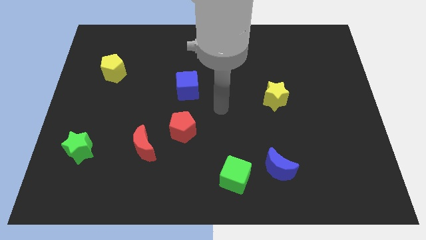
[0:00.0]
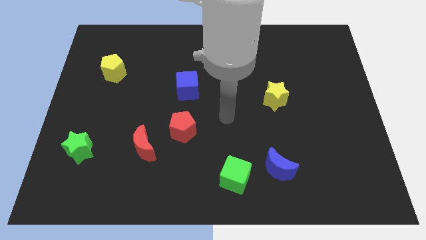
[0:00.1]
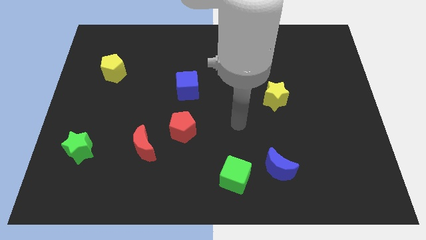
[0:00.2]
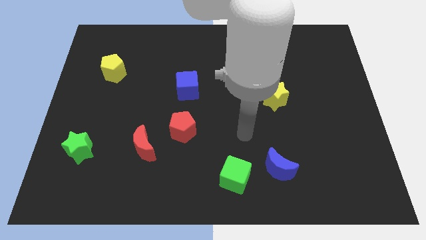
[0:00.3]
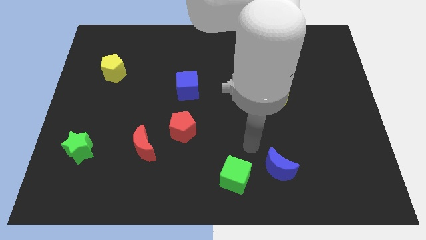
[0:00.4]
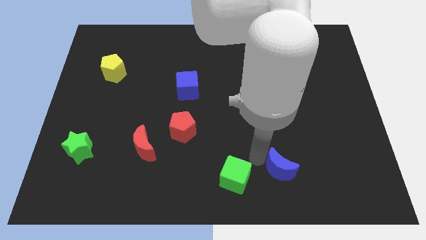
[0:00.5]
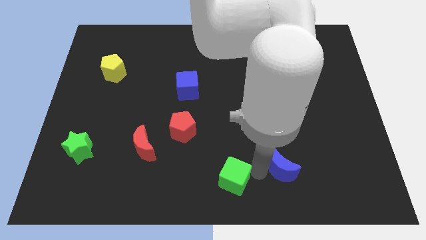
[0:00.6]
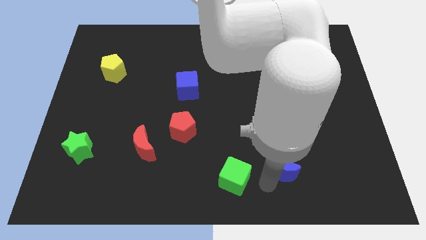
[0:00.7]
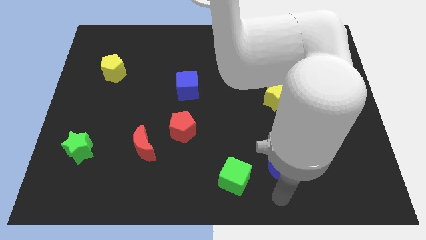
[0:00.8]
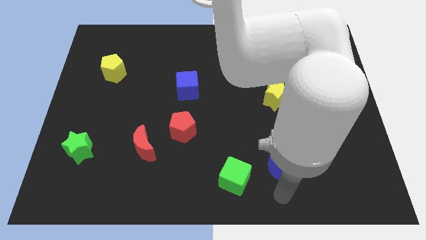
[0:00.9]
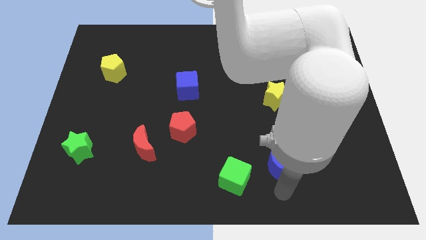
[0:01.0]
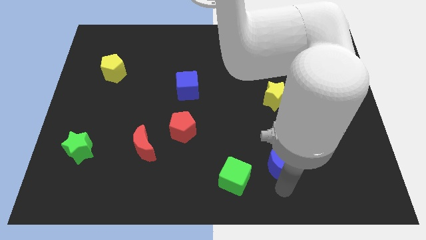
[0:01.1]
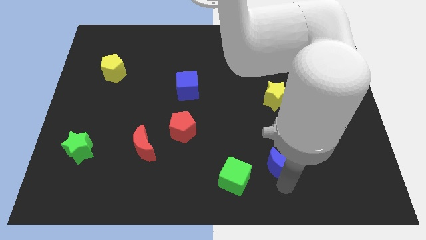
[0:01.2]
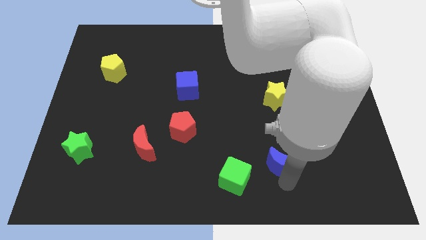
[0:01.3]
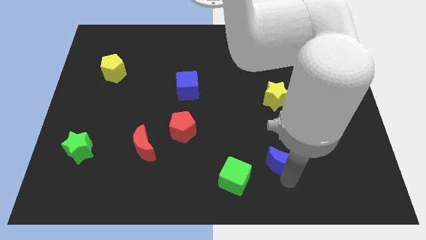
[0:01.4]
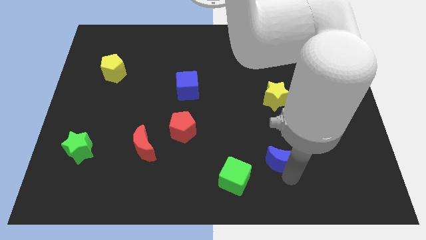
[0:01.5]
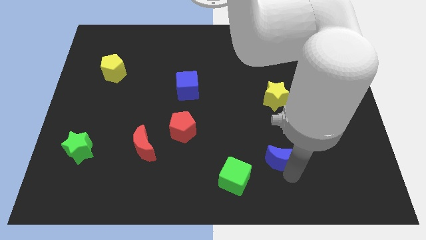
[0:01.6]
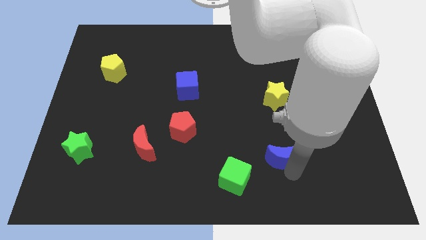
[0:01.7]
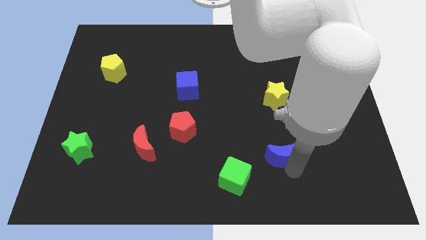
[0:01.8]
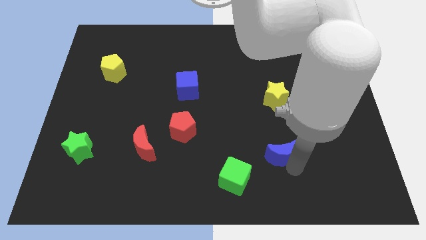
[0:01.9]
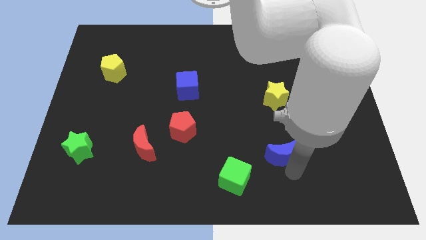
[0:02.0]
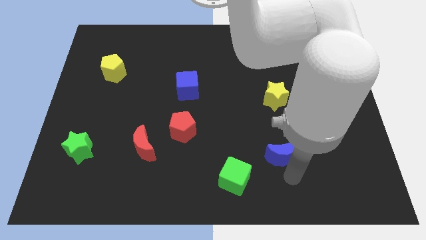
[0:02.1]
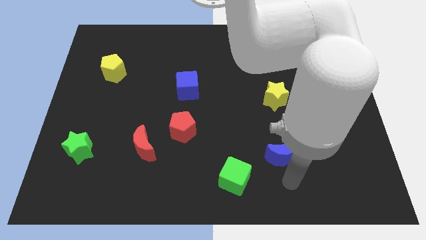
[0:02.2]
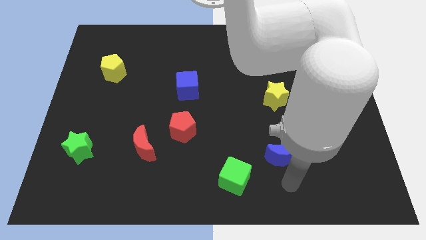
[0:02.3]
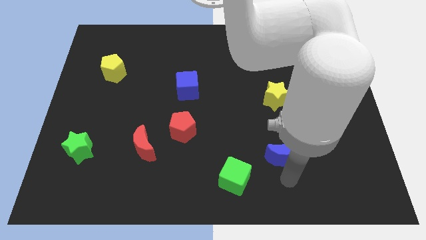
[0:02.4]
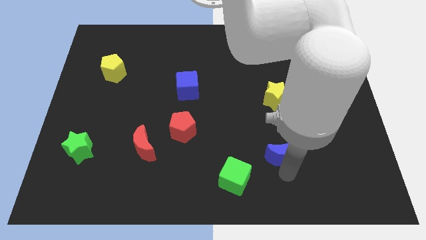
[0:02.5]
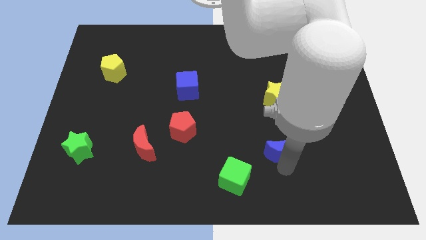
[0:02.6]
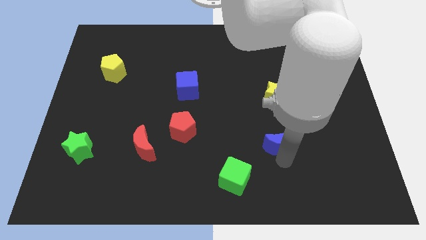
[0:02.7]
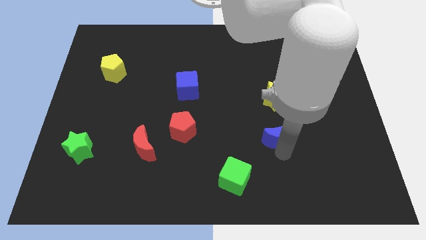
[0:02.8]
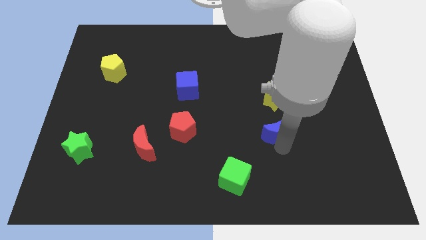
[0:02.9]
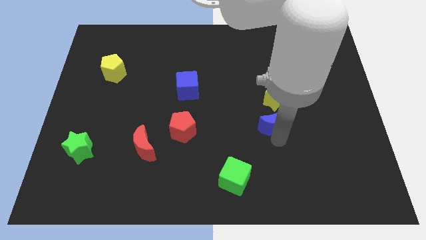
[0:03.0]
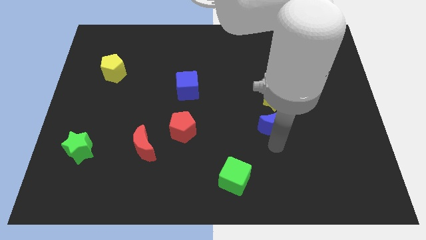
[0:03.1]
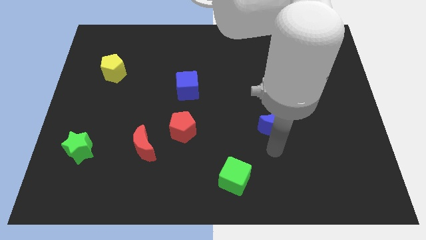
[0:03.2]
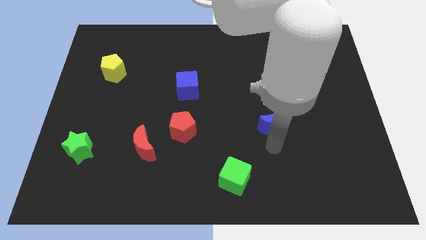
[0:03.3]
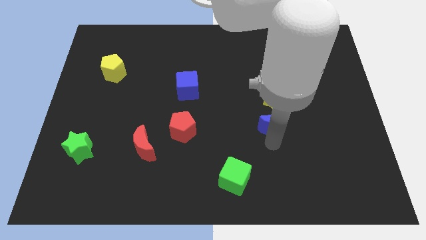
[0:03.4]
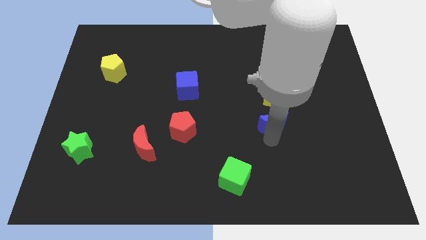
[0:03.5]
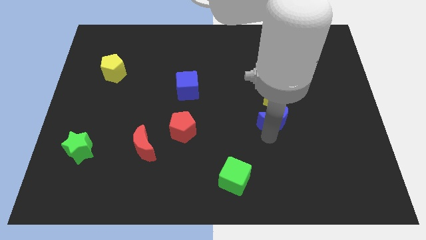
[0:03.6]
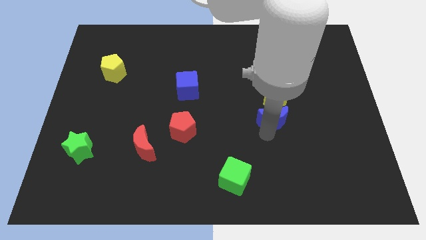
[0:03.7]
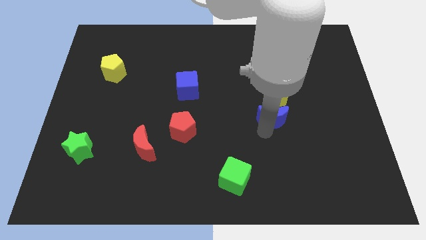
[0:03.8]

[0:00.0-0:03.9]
put the blue moon towards the yellow star

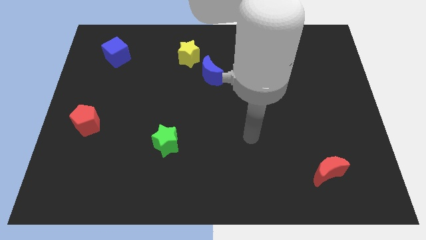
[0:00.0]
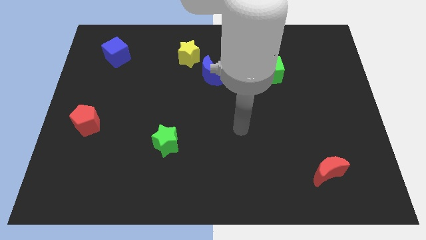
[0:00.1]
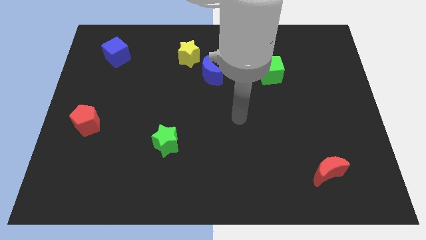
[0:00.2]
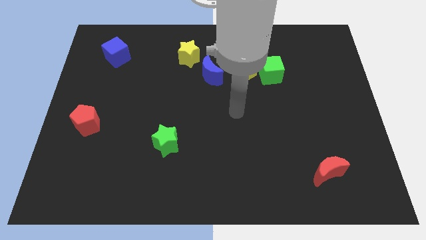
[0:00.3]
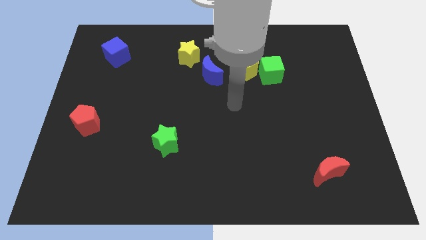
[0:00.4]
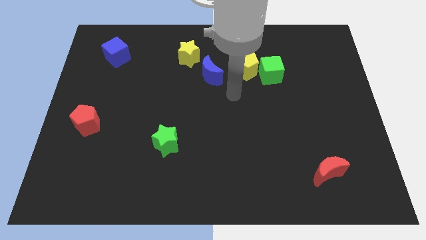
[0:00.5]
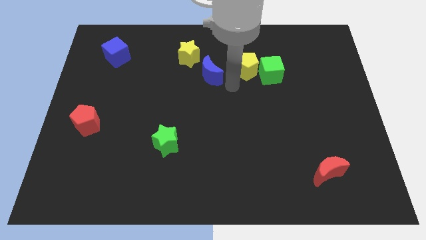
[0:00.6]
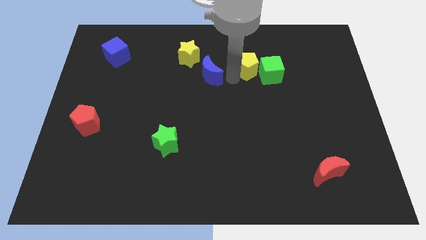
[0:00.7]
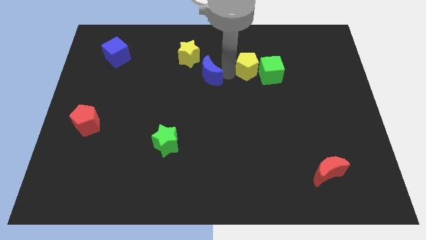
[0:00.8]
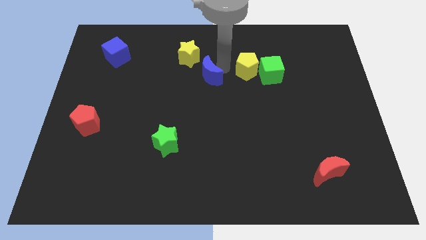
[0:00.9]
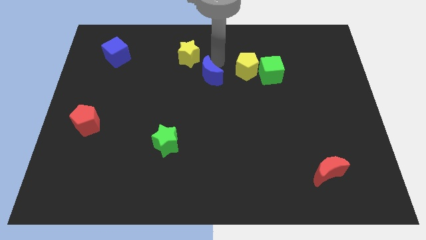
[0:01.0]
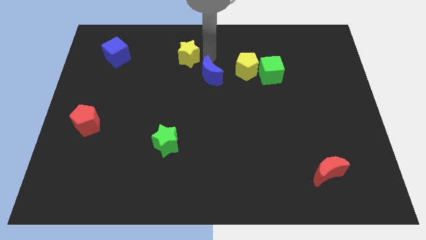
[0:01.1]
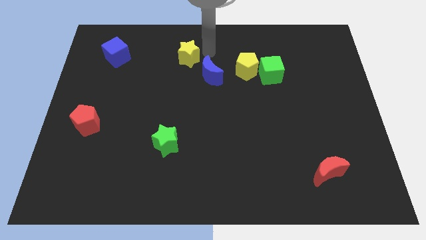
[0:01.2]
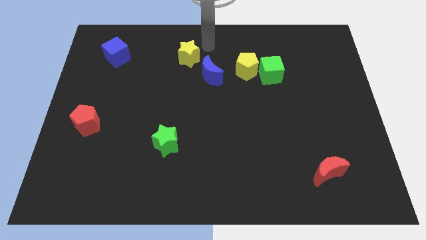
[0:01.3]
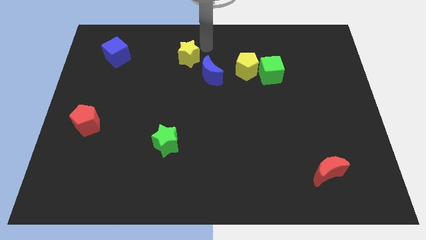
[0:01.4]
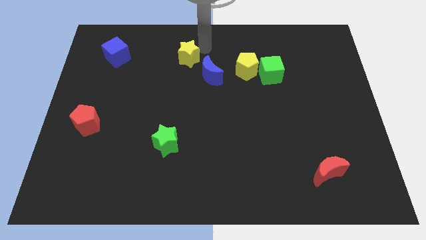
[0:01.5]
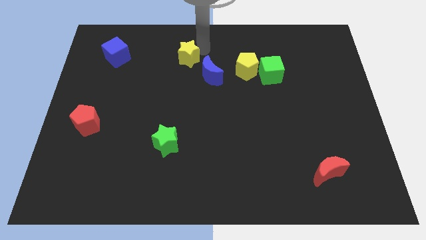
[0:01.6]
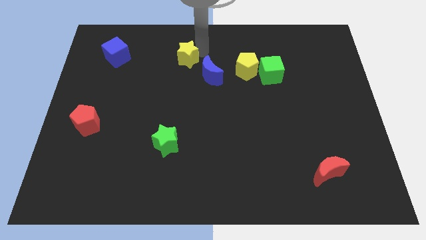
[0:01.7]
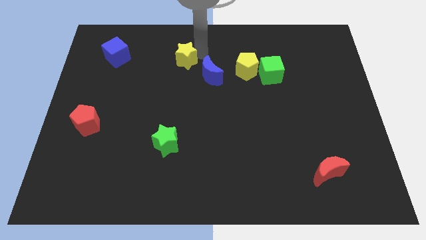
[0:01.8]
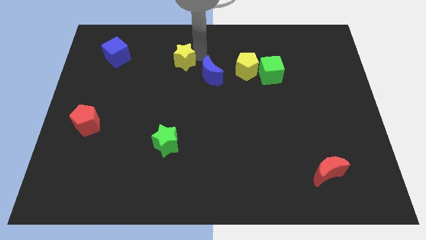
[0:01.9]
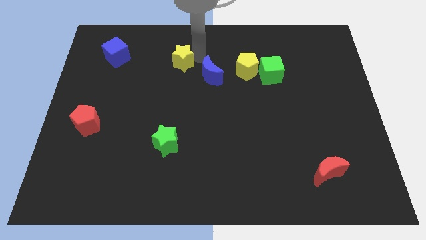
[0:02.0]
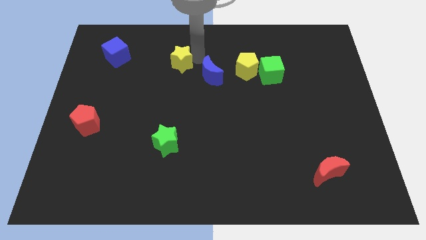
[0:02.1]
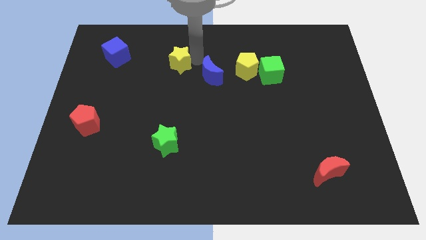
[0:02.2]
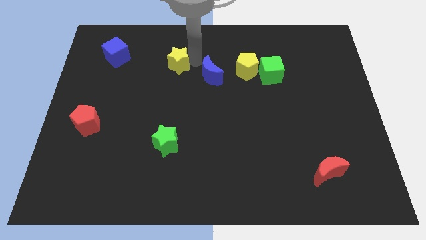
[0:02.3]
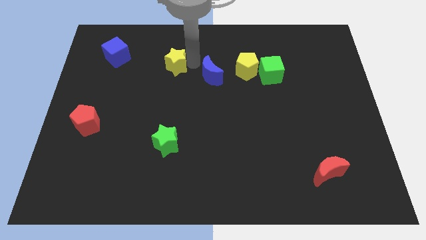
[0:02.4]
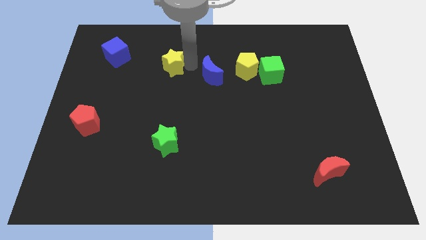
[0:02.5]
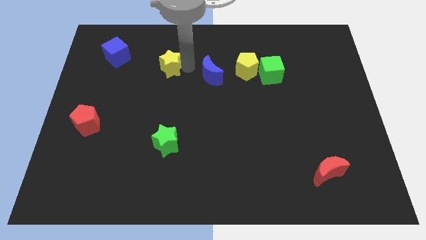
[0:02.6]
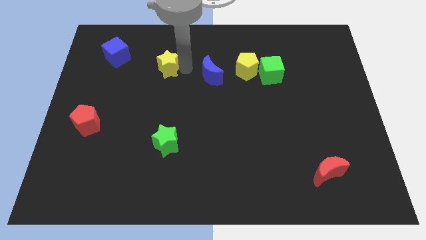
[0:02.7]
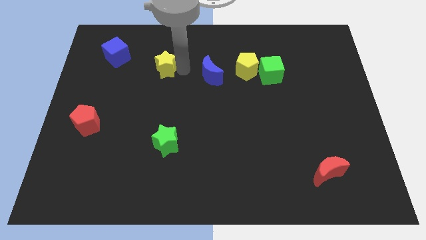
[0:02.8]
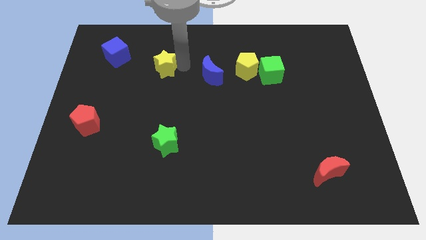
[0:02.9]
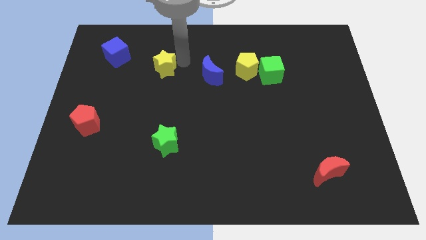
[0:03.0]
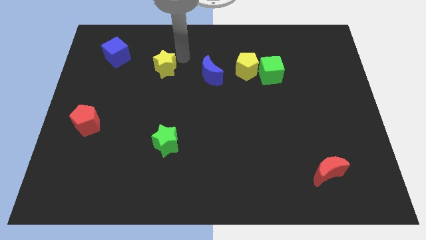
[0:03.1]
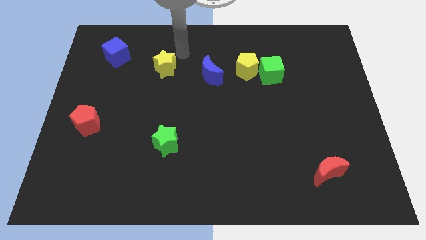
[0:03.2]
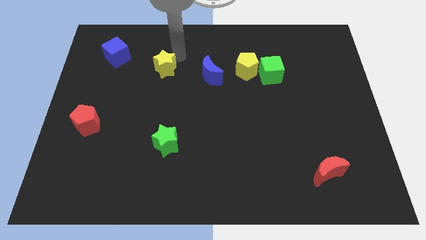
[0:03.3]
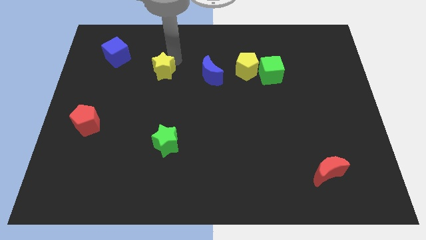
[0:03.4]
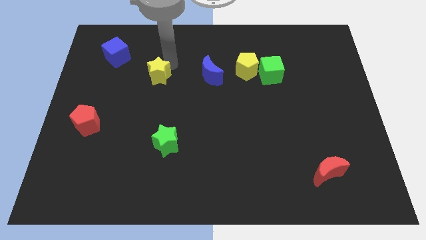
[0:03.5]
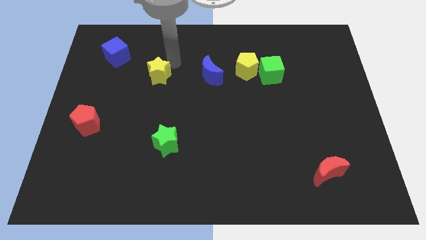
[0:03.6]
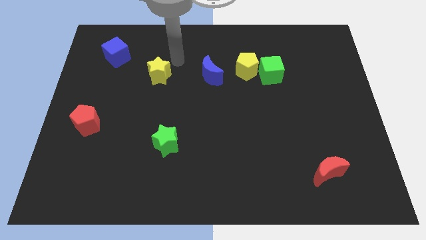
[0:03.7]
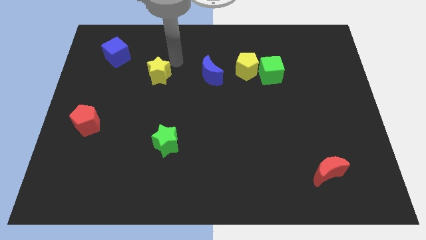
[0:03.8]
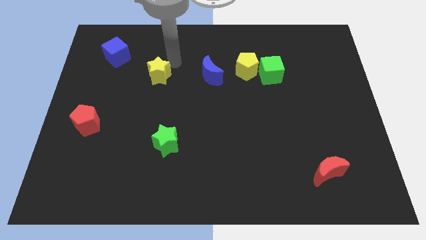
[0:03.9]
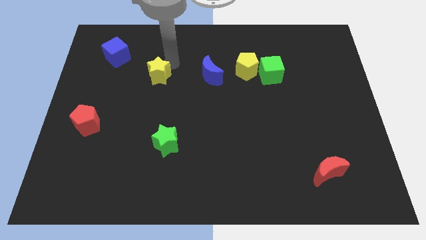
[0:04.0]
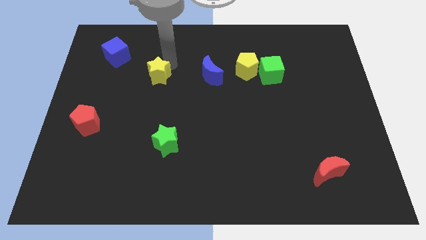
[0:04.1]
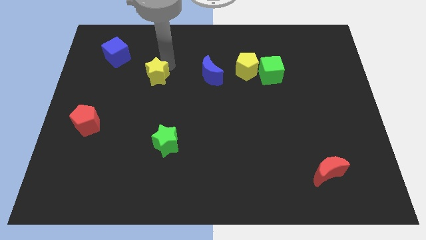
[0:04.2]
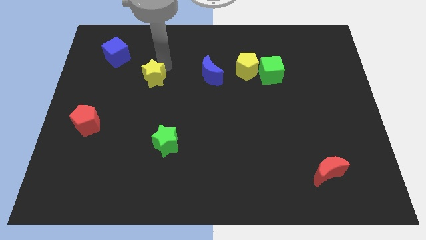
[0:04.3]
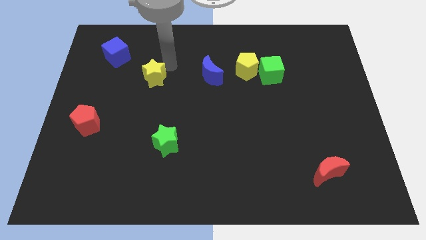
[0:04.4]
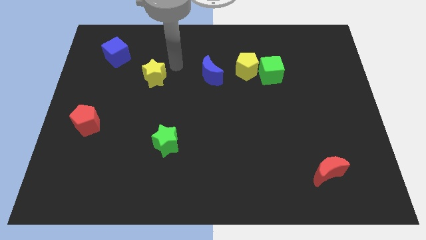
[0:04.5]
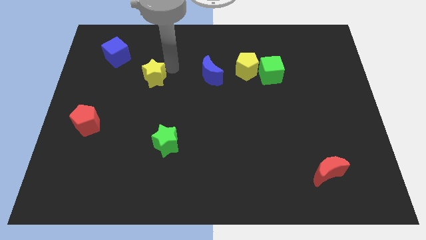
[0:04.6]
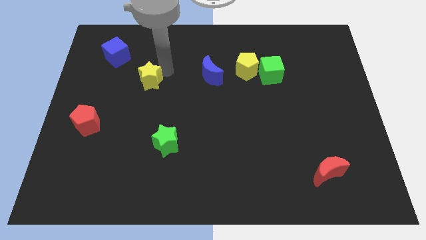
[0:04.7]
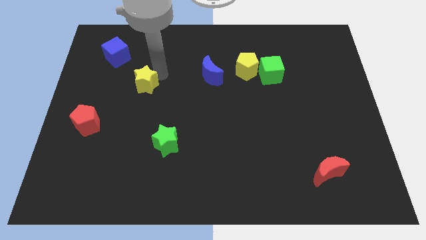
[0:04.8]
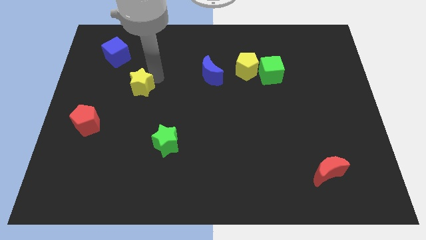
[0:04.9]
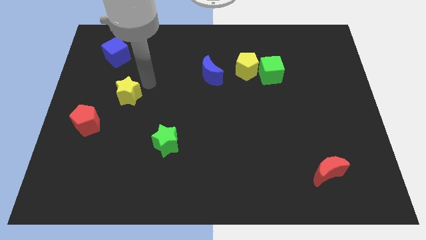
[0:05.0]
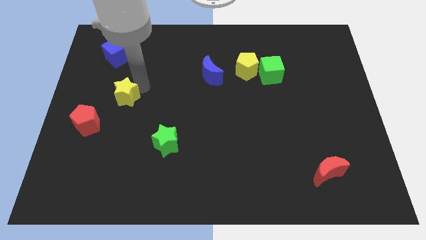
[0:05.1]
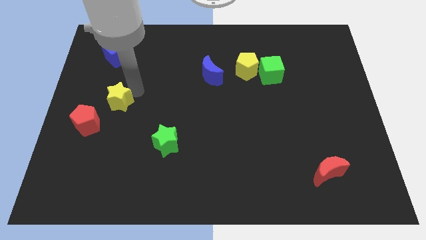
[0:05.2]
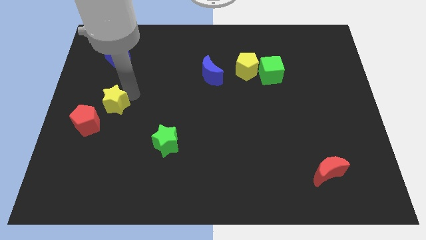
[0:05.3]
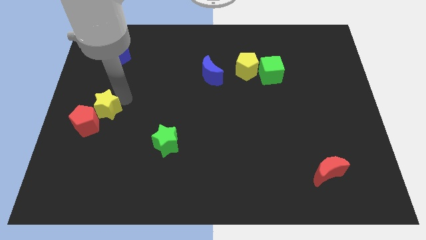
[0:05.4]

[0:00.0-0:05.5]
slide the yellow star to the red pentagon
